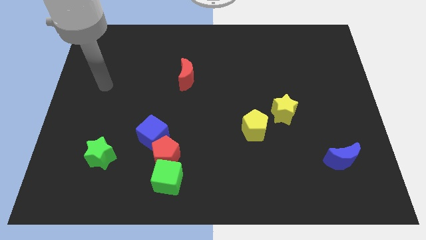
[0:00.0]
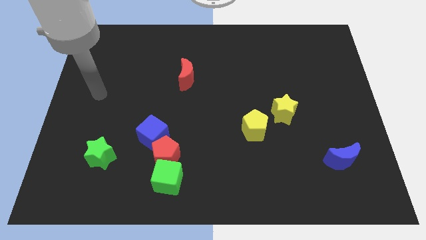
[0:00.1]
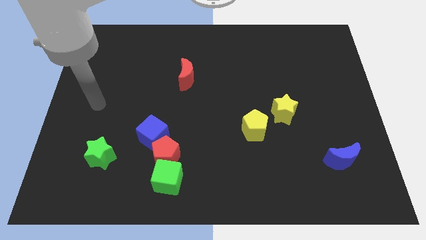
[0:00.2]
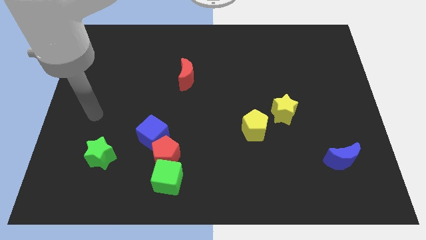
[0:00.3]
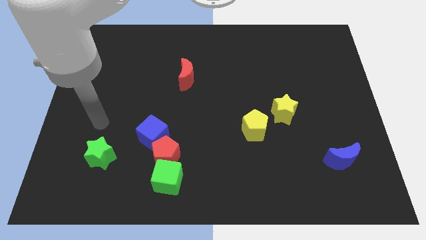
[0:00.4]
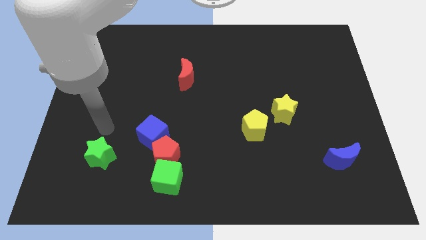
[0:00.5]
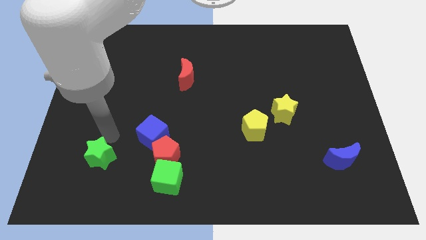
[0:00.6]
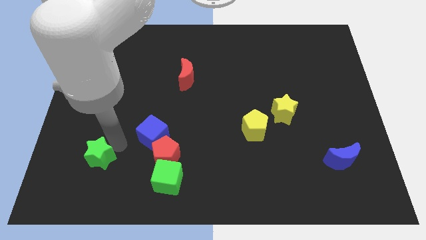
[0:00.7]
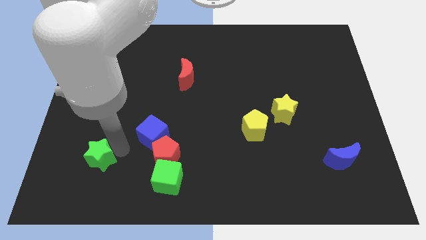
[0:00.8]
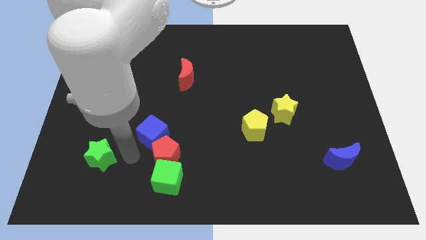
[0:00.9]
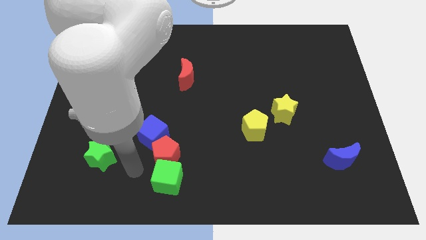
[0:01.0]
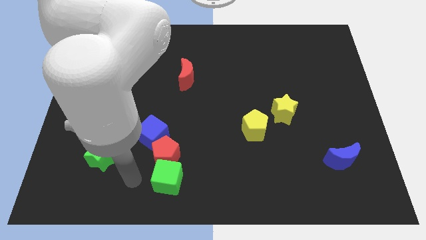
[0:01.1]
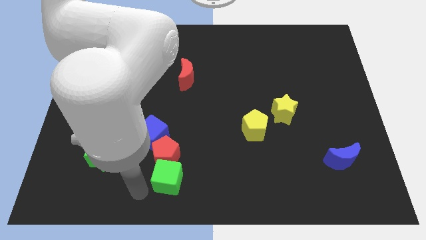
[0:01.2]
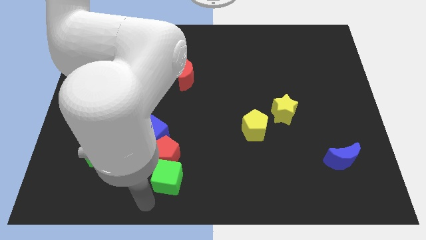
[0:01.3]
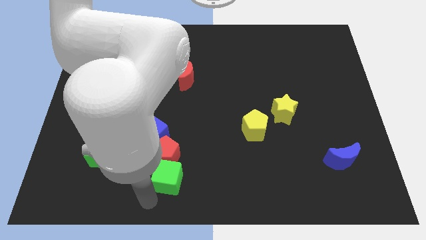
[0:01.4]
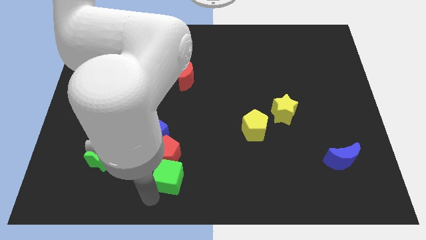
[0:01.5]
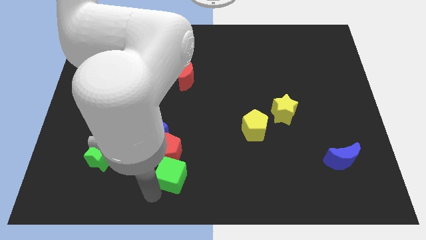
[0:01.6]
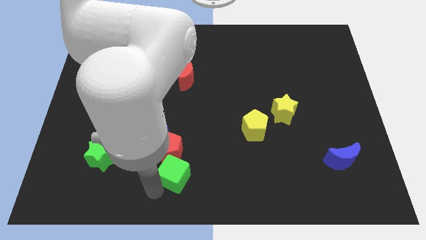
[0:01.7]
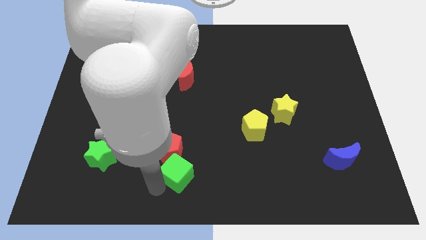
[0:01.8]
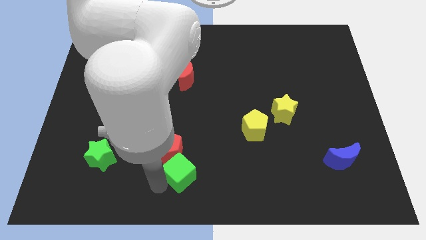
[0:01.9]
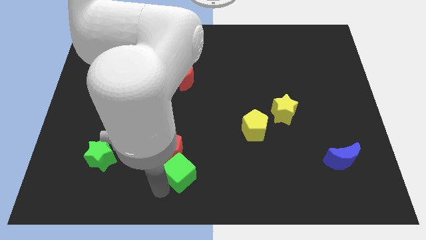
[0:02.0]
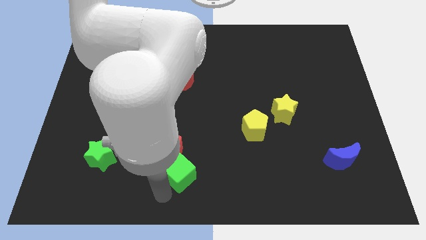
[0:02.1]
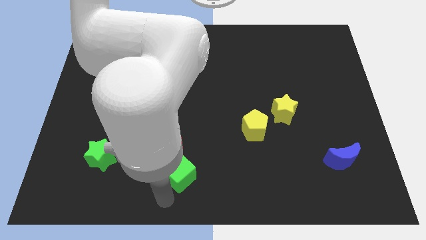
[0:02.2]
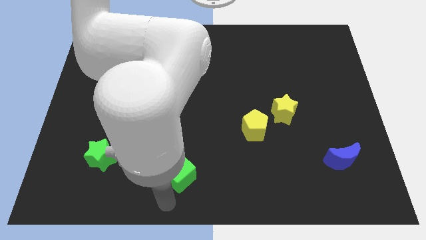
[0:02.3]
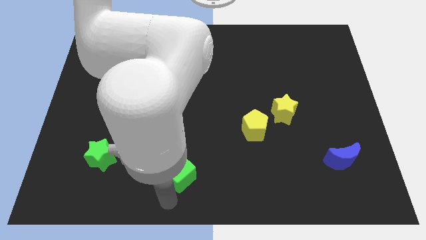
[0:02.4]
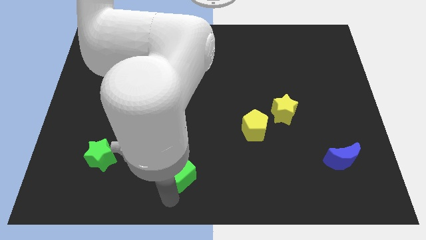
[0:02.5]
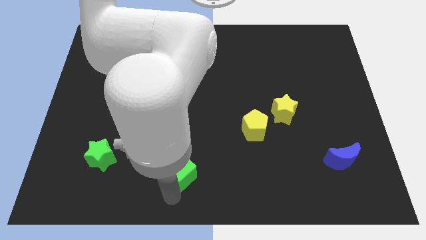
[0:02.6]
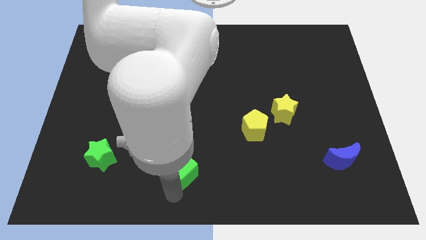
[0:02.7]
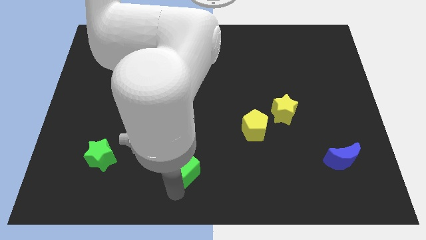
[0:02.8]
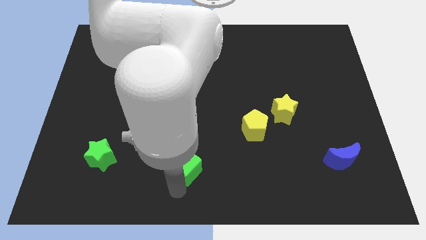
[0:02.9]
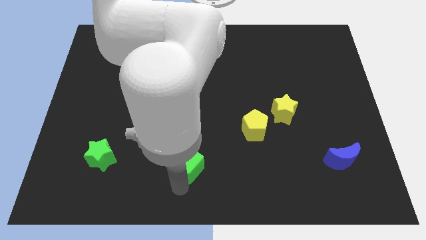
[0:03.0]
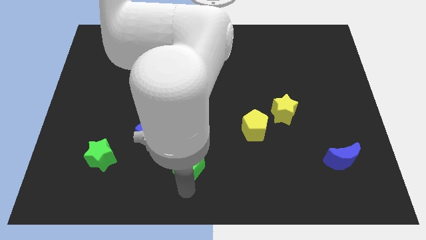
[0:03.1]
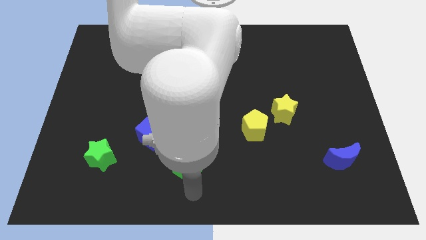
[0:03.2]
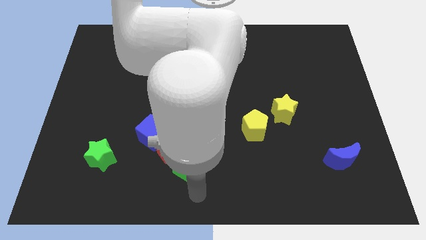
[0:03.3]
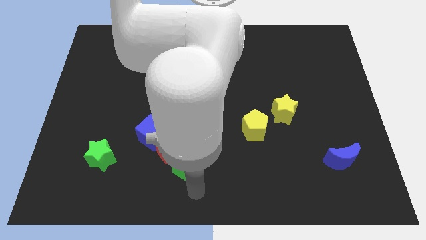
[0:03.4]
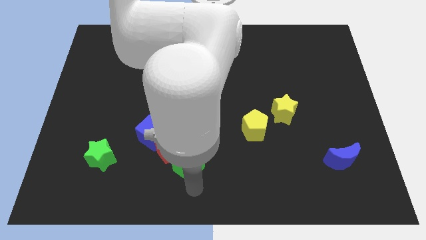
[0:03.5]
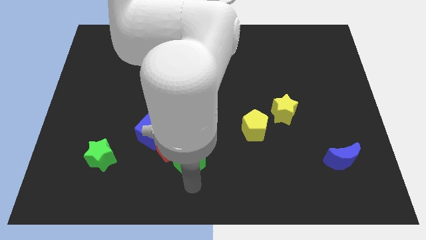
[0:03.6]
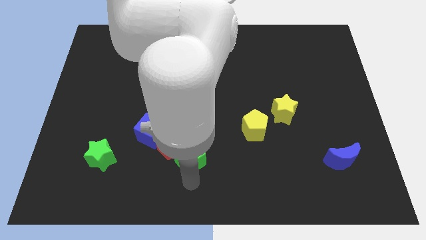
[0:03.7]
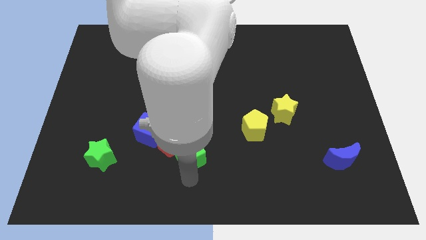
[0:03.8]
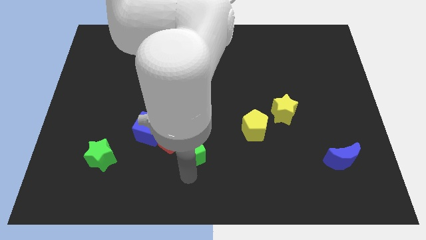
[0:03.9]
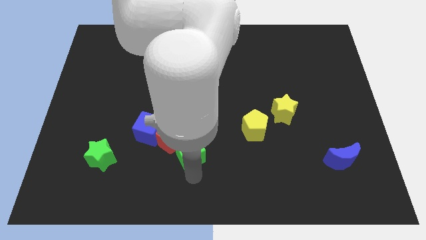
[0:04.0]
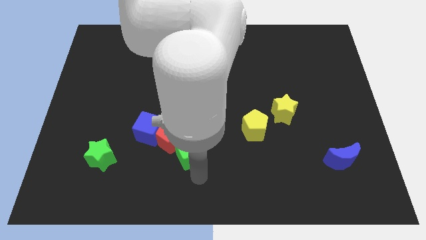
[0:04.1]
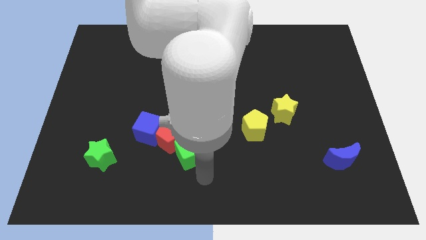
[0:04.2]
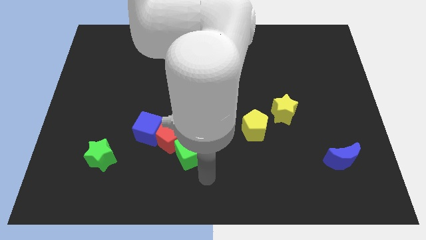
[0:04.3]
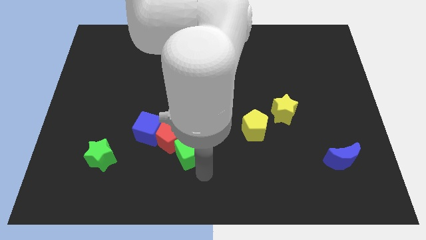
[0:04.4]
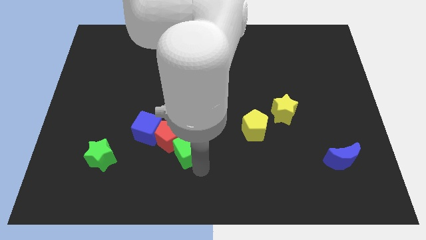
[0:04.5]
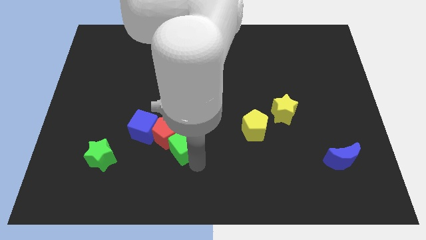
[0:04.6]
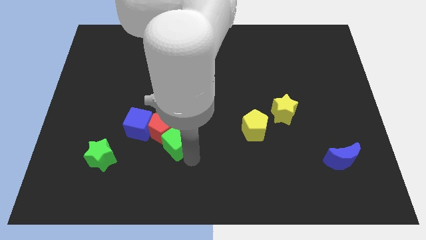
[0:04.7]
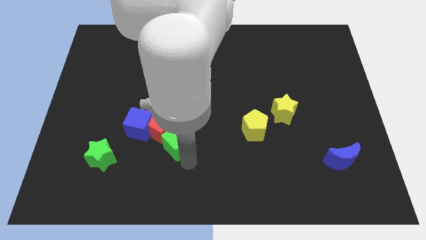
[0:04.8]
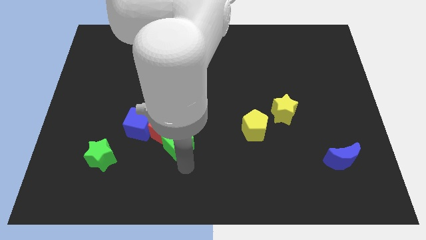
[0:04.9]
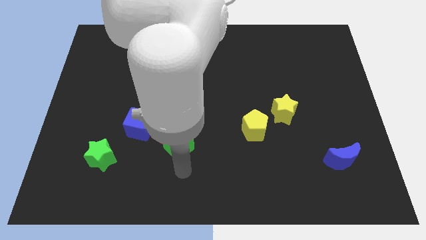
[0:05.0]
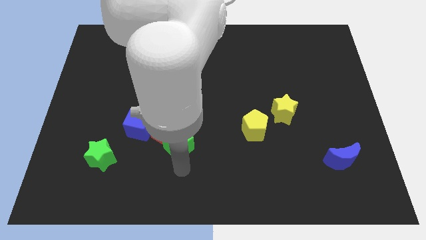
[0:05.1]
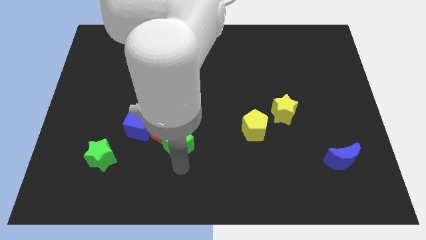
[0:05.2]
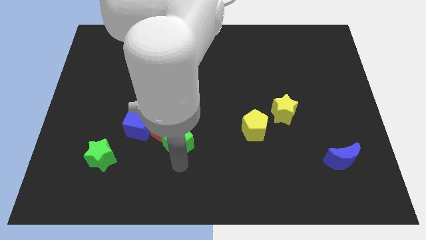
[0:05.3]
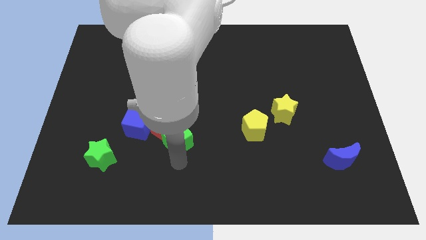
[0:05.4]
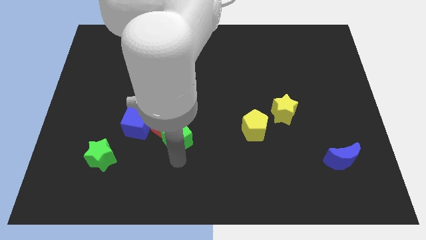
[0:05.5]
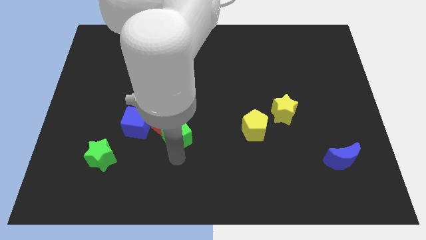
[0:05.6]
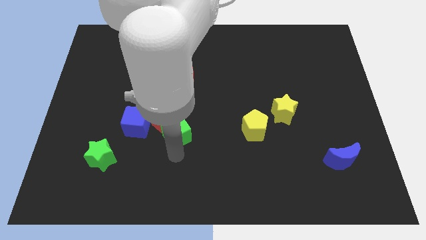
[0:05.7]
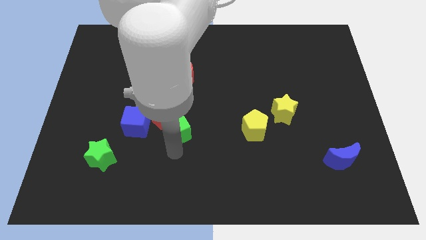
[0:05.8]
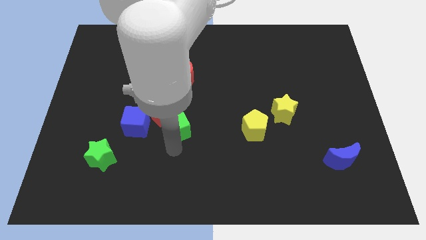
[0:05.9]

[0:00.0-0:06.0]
slide the green cube below the red moon

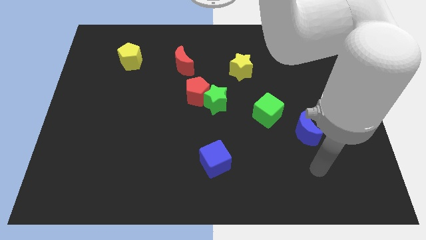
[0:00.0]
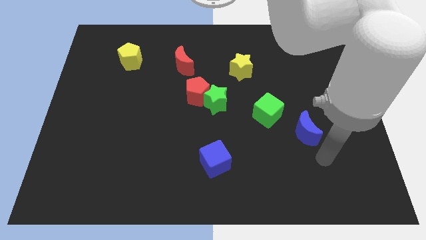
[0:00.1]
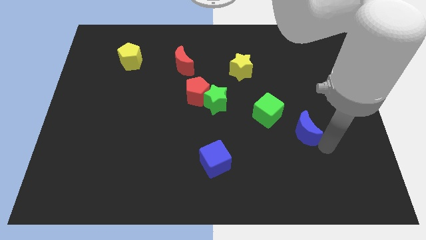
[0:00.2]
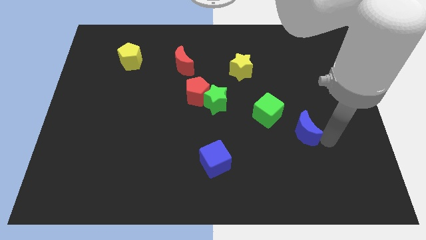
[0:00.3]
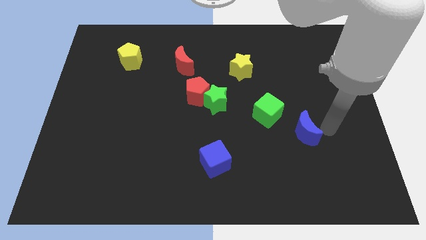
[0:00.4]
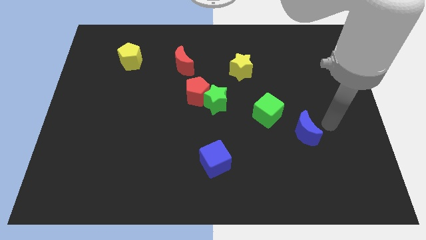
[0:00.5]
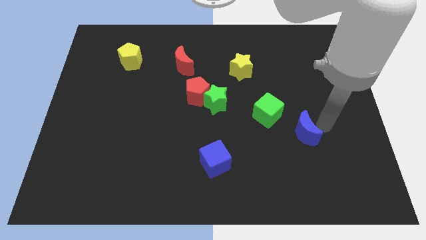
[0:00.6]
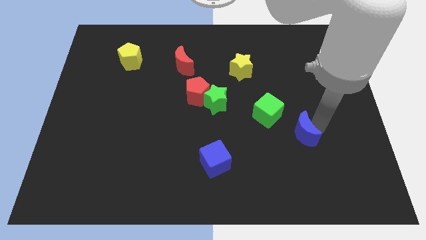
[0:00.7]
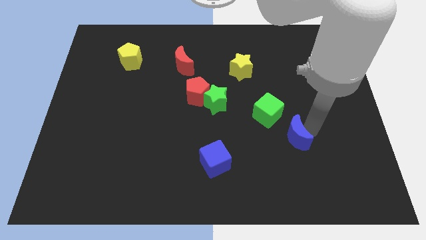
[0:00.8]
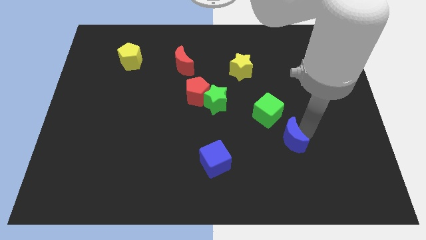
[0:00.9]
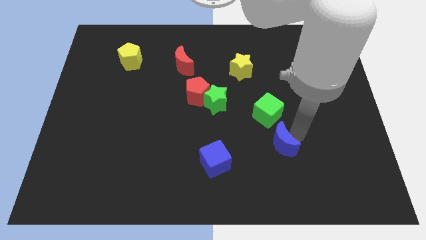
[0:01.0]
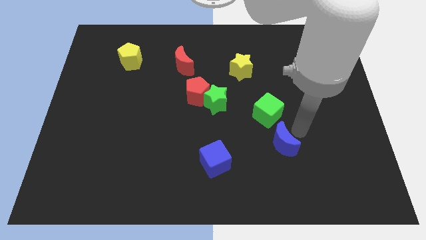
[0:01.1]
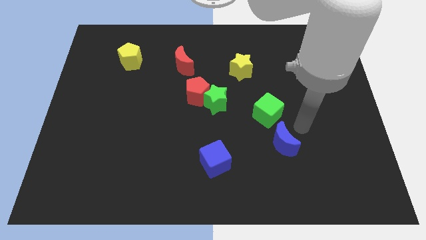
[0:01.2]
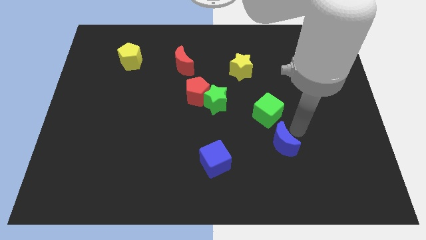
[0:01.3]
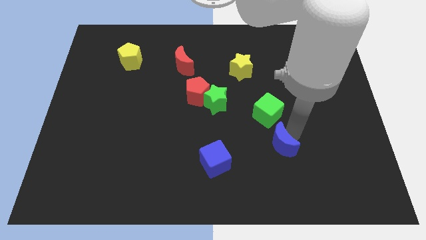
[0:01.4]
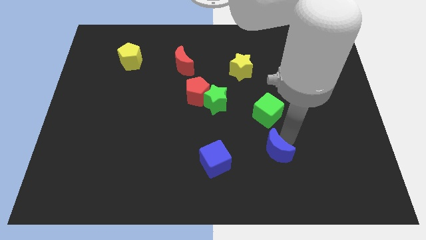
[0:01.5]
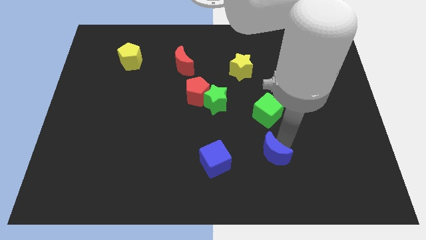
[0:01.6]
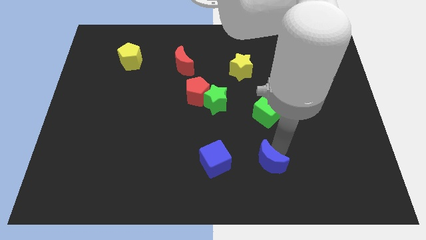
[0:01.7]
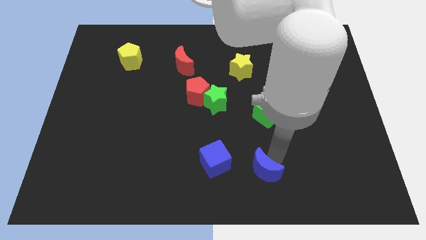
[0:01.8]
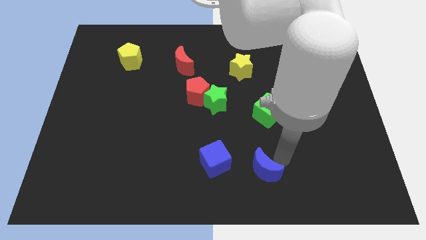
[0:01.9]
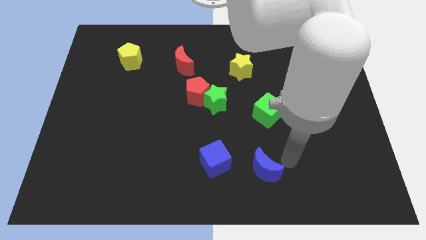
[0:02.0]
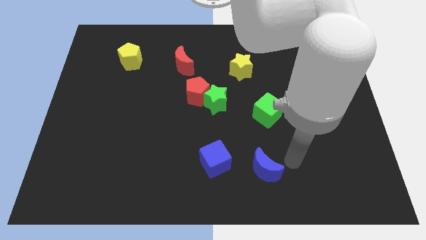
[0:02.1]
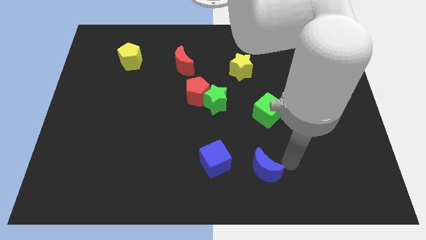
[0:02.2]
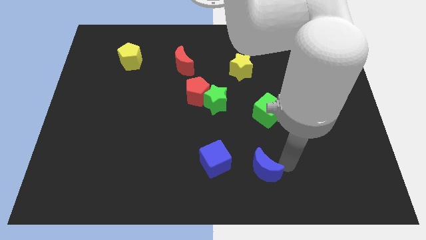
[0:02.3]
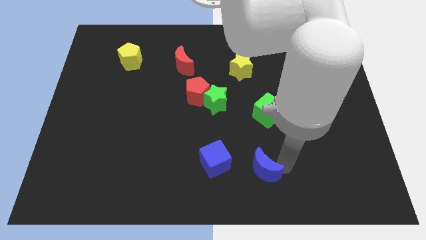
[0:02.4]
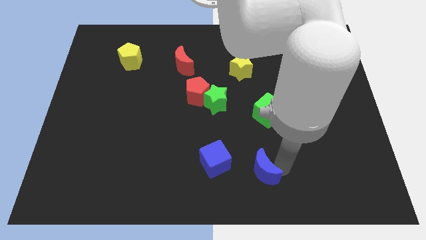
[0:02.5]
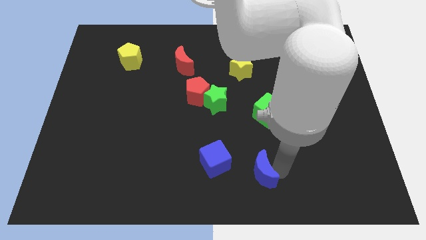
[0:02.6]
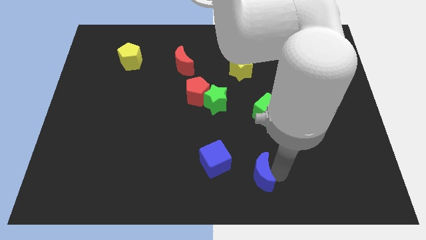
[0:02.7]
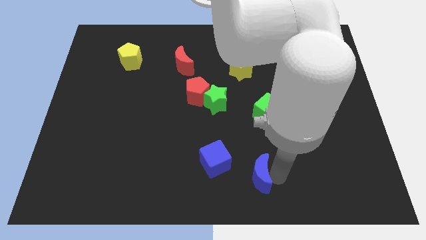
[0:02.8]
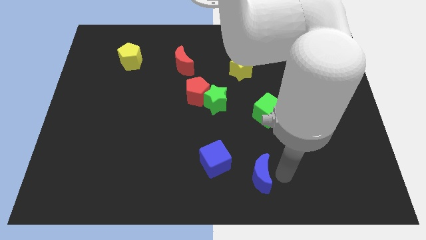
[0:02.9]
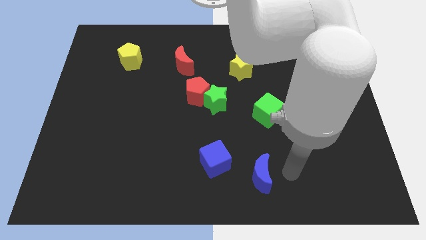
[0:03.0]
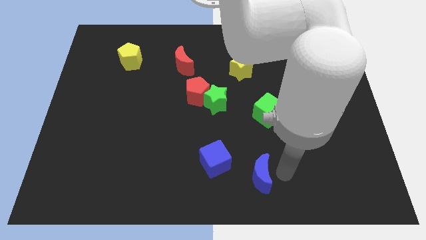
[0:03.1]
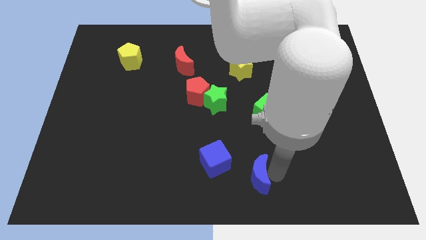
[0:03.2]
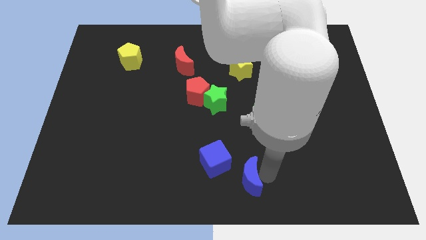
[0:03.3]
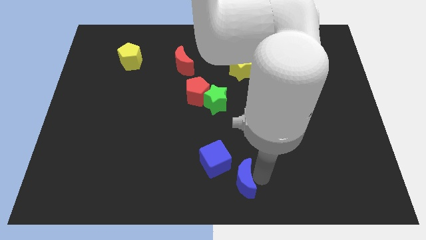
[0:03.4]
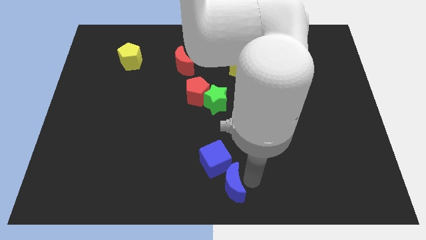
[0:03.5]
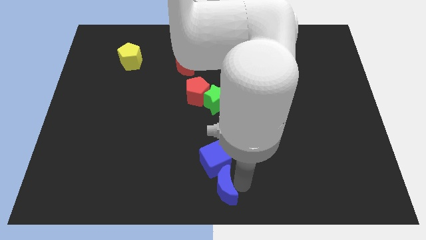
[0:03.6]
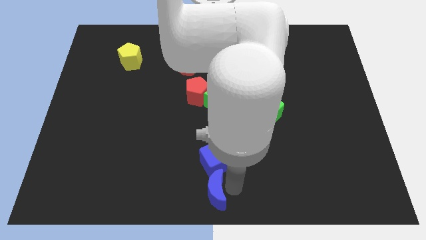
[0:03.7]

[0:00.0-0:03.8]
slide the blue moon to the bottom left of the blue cube
